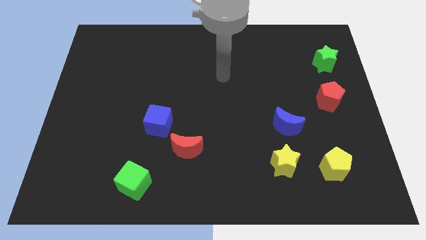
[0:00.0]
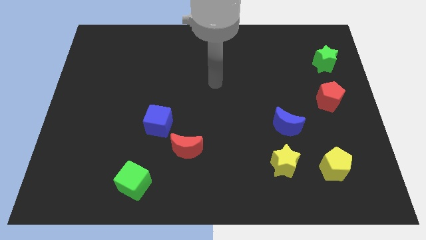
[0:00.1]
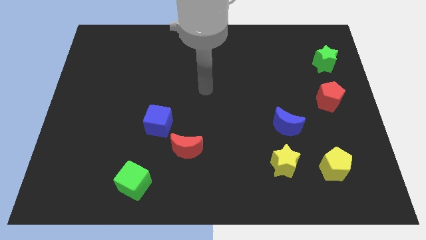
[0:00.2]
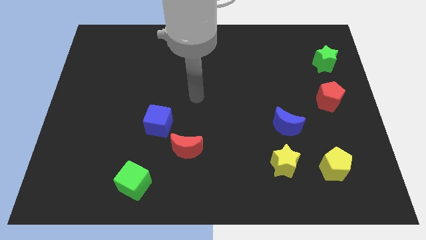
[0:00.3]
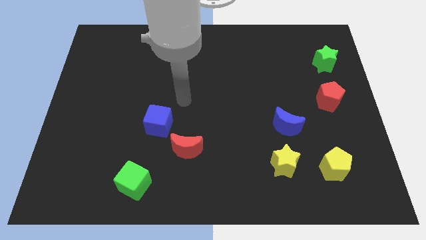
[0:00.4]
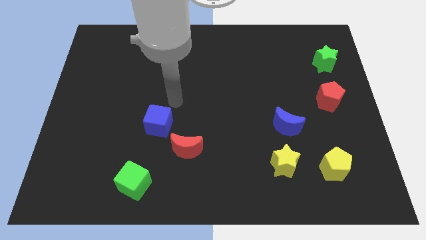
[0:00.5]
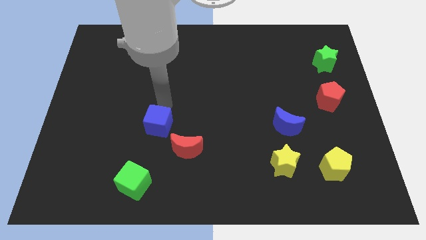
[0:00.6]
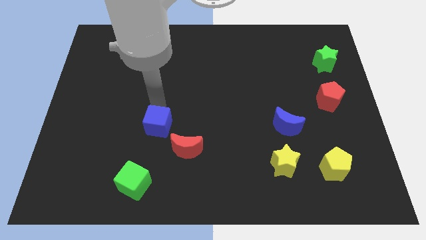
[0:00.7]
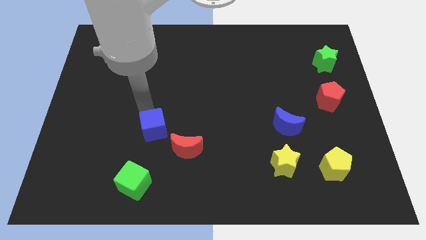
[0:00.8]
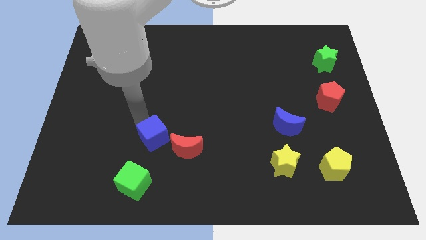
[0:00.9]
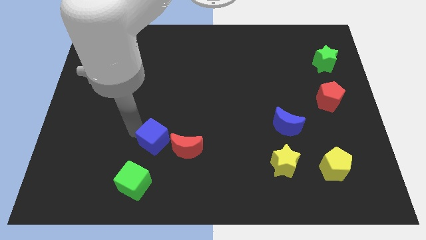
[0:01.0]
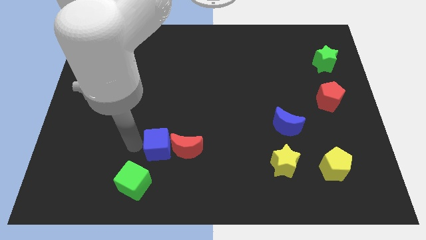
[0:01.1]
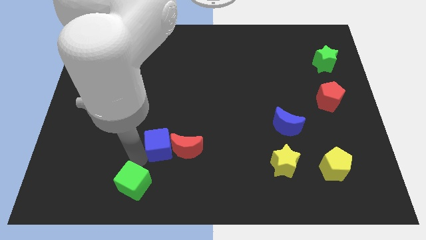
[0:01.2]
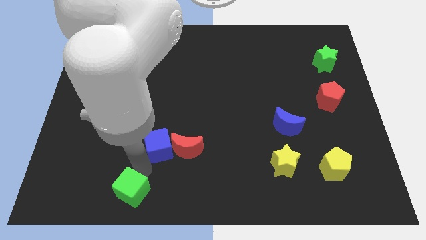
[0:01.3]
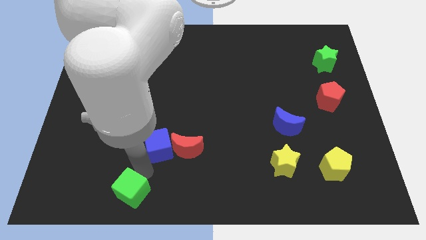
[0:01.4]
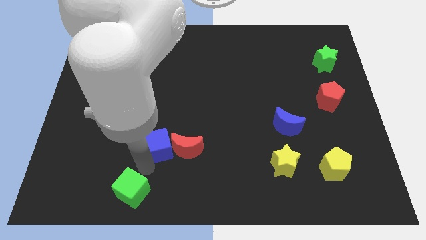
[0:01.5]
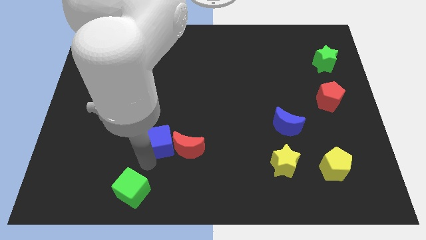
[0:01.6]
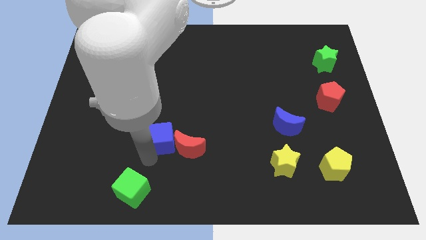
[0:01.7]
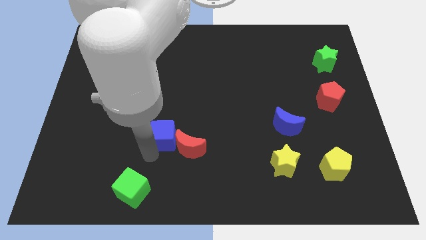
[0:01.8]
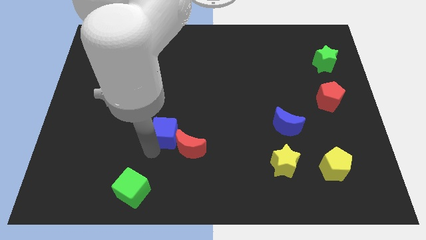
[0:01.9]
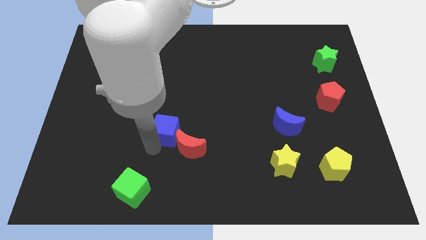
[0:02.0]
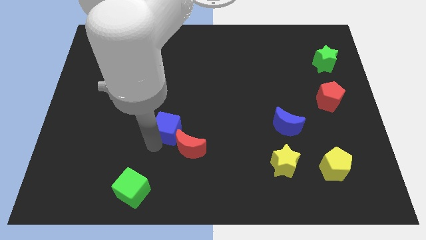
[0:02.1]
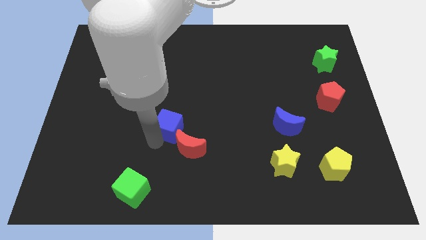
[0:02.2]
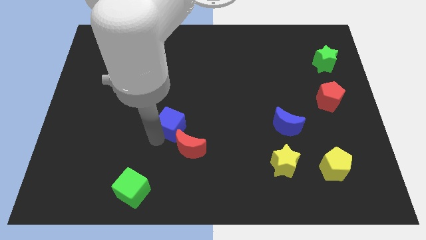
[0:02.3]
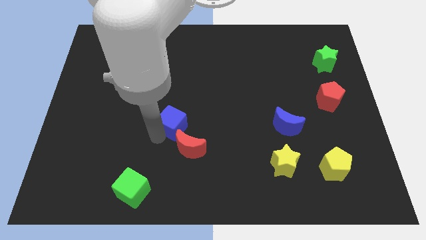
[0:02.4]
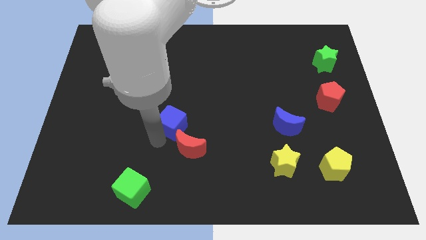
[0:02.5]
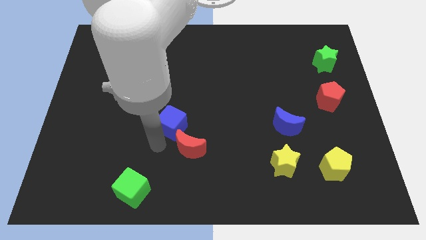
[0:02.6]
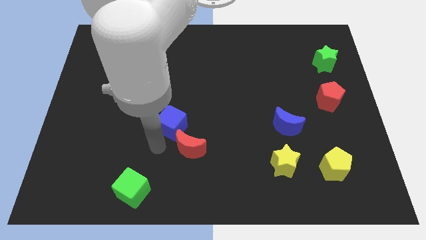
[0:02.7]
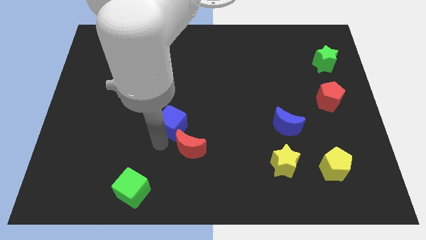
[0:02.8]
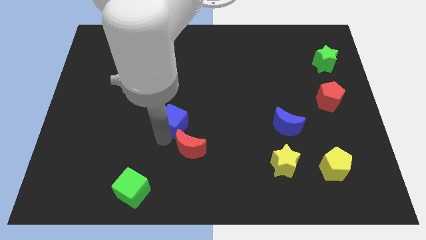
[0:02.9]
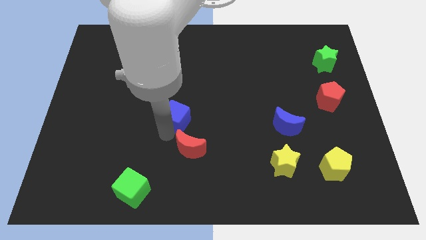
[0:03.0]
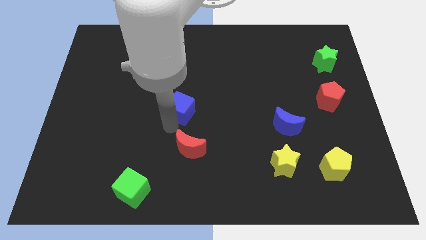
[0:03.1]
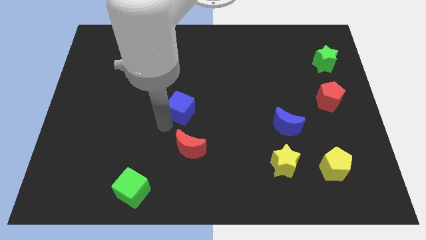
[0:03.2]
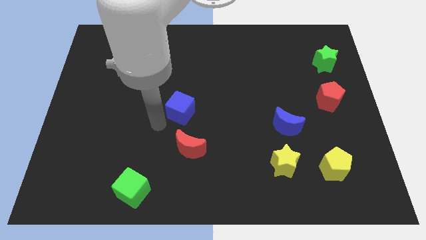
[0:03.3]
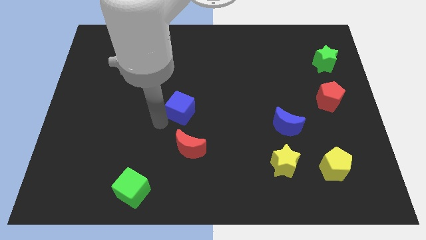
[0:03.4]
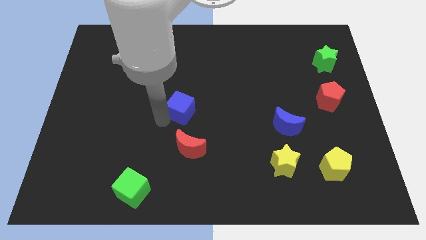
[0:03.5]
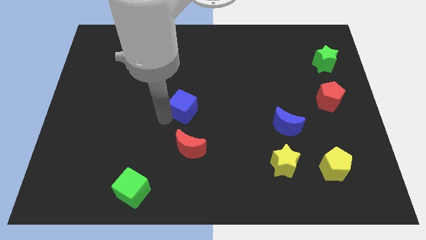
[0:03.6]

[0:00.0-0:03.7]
push the blue cube diagonally upwards and right a bit

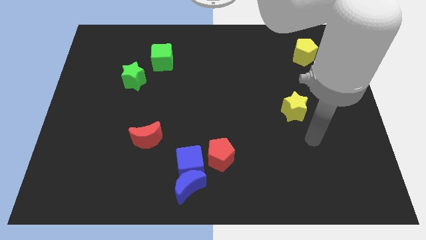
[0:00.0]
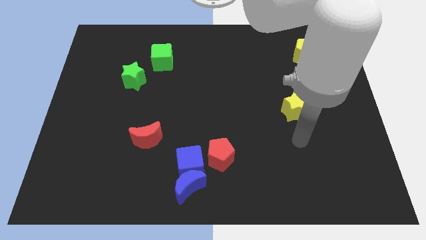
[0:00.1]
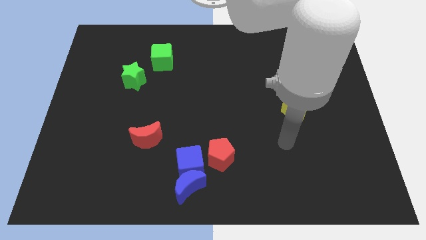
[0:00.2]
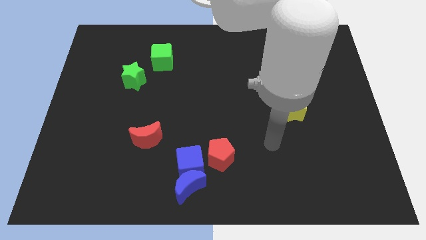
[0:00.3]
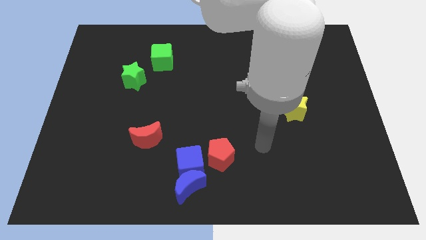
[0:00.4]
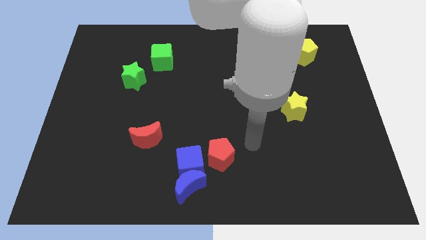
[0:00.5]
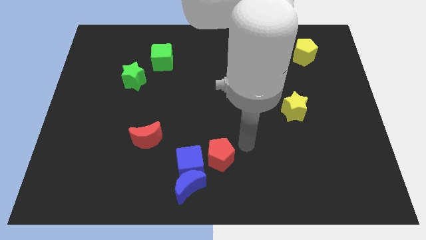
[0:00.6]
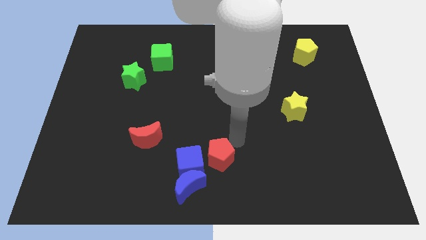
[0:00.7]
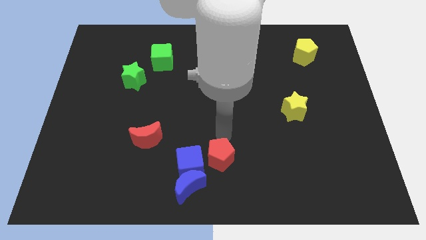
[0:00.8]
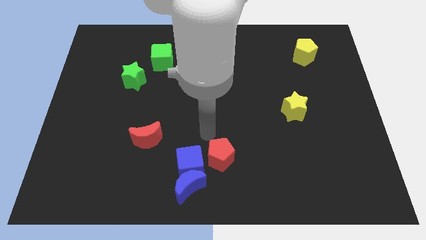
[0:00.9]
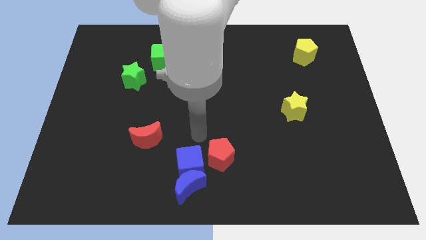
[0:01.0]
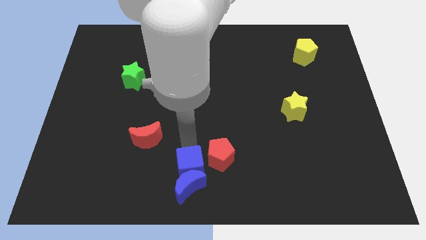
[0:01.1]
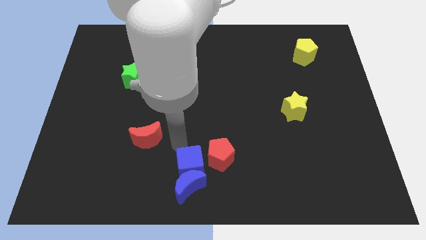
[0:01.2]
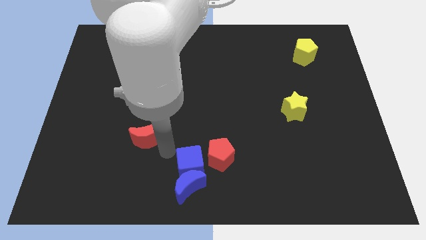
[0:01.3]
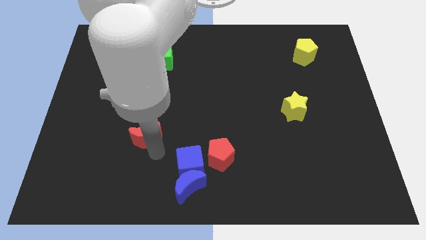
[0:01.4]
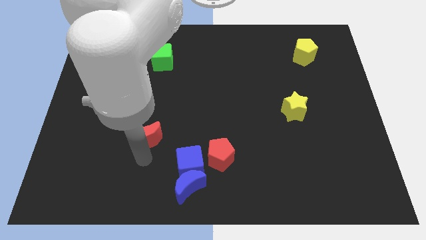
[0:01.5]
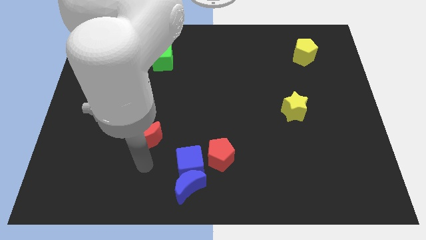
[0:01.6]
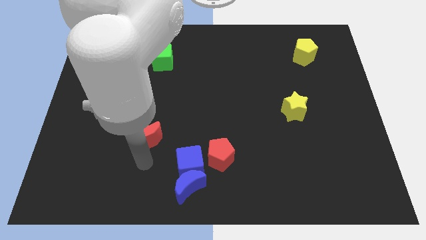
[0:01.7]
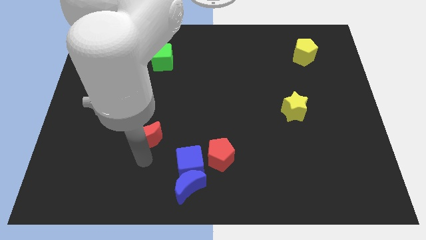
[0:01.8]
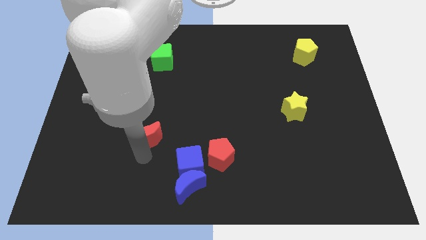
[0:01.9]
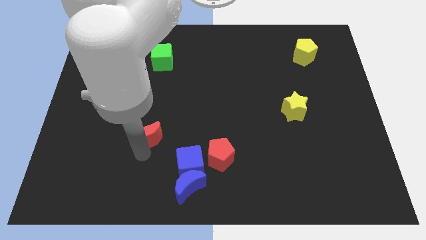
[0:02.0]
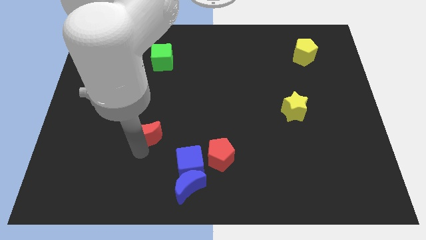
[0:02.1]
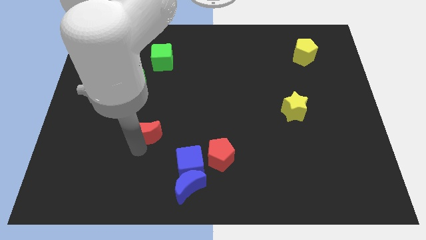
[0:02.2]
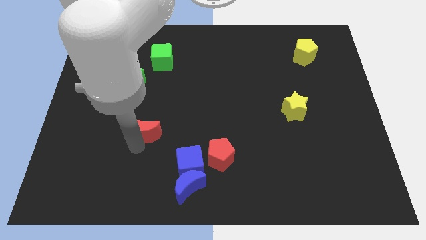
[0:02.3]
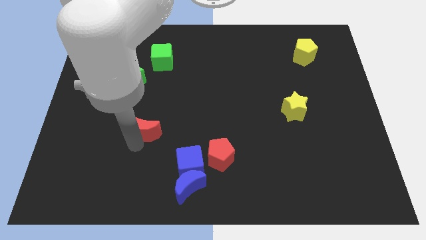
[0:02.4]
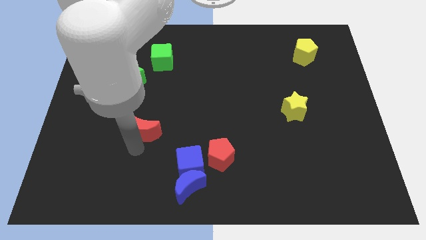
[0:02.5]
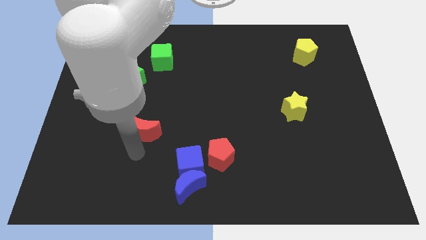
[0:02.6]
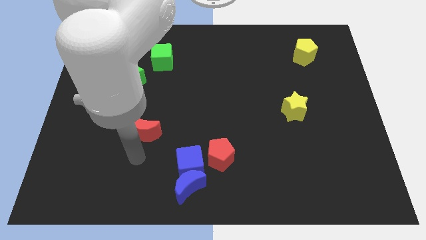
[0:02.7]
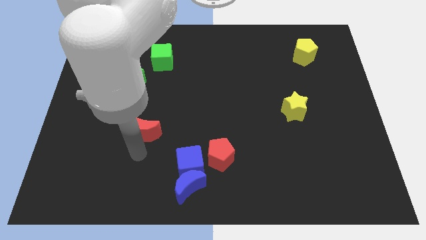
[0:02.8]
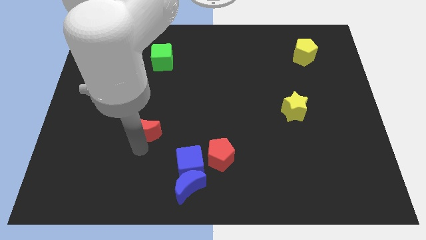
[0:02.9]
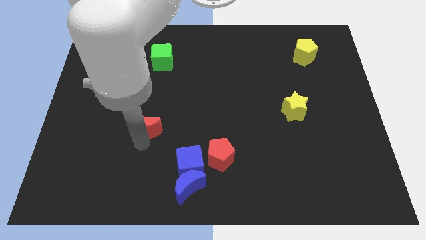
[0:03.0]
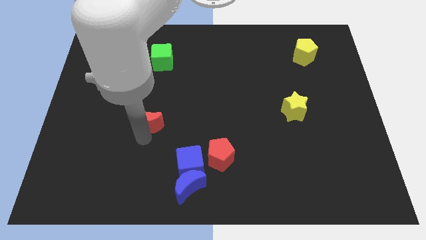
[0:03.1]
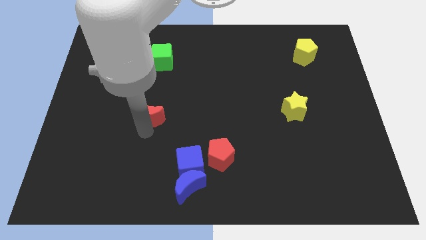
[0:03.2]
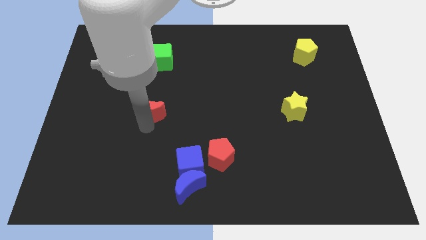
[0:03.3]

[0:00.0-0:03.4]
slightly slide the red moon up

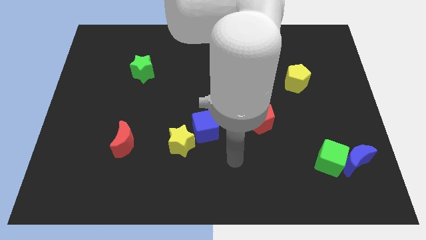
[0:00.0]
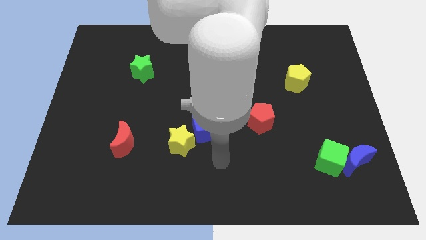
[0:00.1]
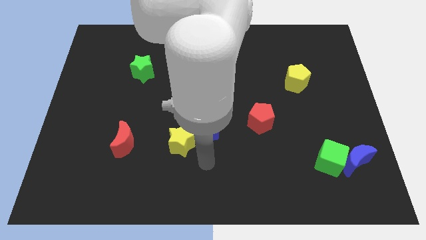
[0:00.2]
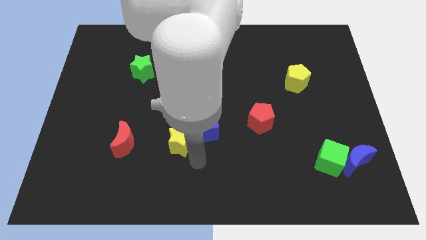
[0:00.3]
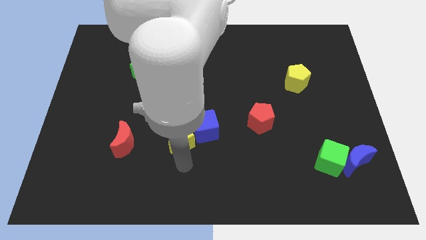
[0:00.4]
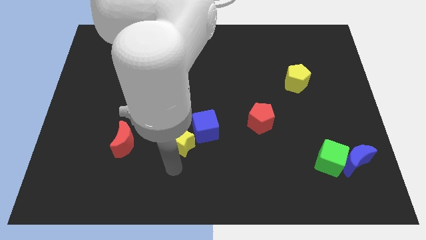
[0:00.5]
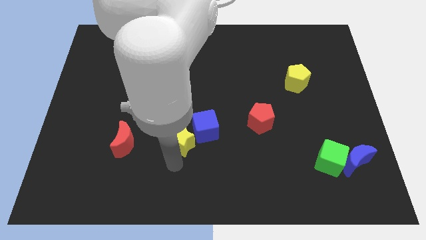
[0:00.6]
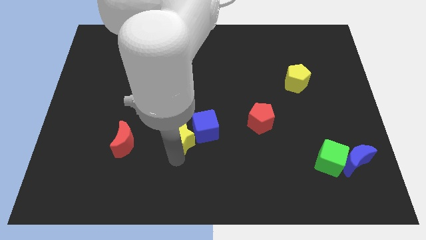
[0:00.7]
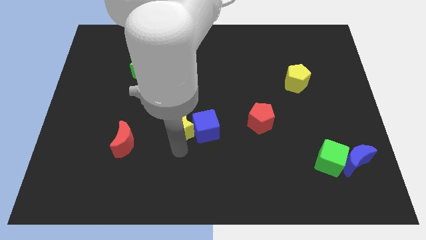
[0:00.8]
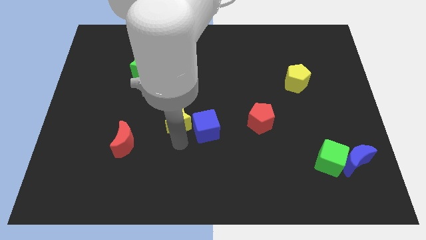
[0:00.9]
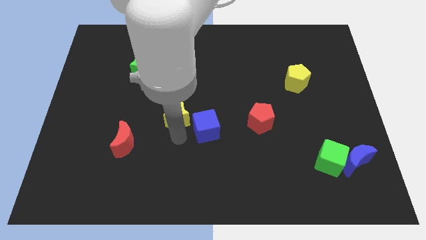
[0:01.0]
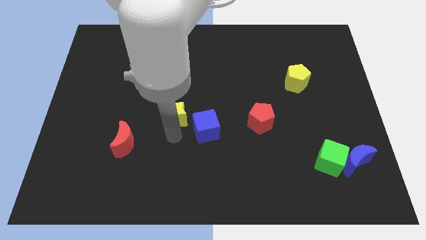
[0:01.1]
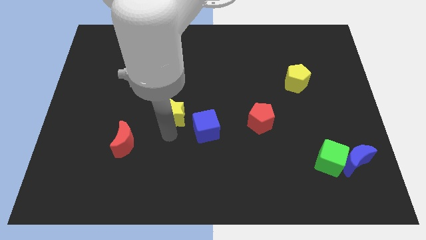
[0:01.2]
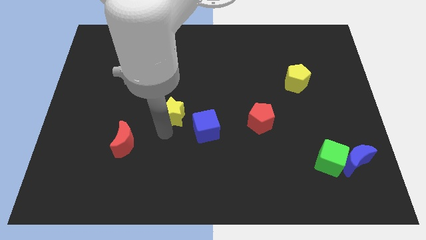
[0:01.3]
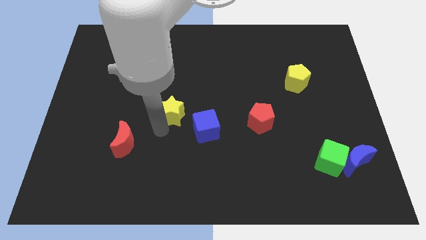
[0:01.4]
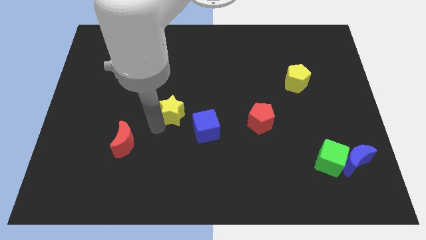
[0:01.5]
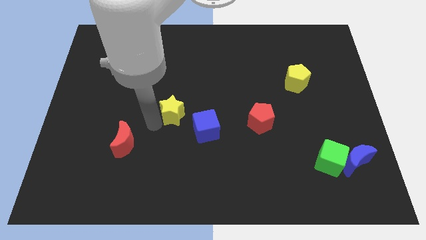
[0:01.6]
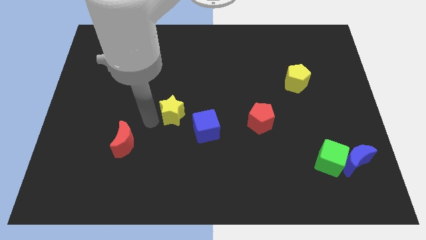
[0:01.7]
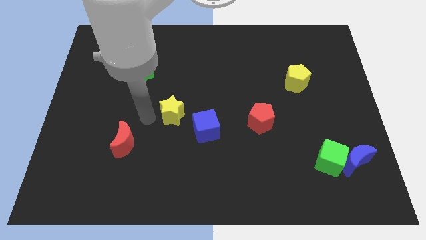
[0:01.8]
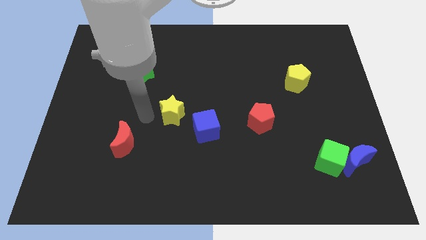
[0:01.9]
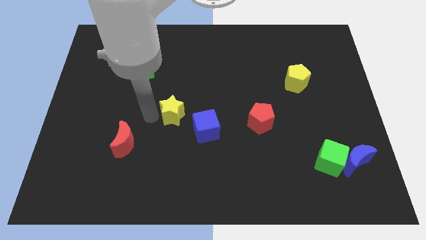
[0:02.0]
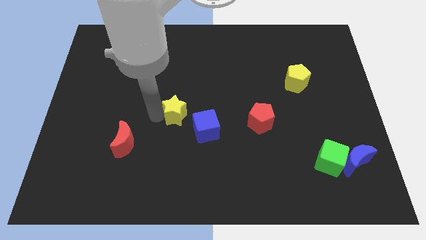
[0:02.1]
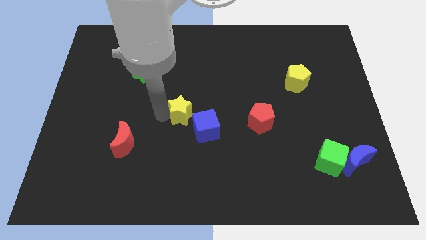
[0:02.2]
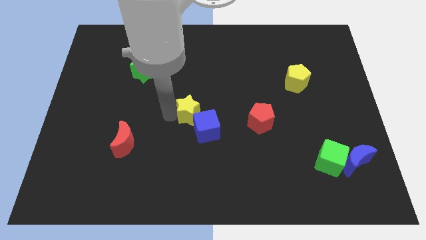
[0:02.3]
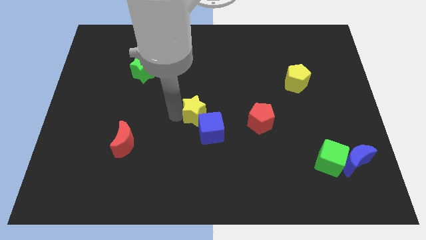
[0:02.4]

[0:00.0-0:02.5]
push the yellow star diagonally upwards and right a little bit
